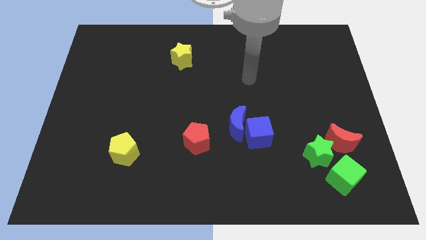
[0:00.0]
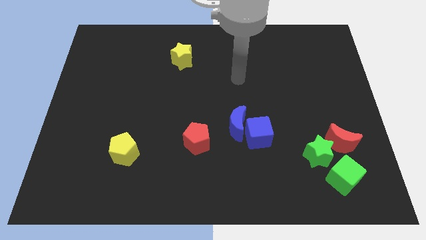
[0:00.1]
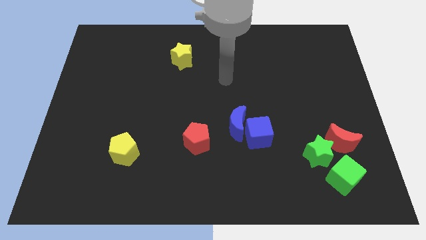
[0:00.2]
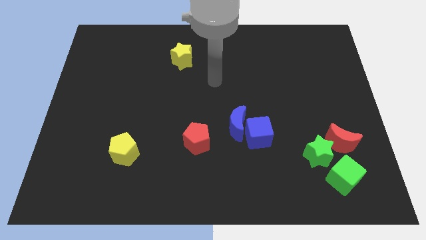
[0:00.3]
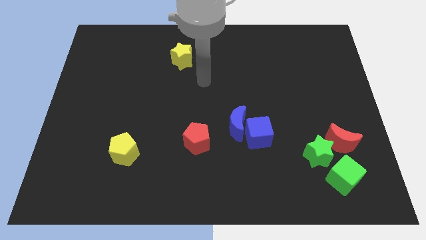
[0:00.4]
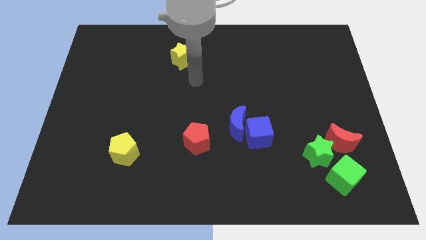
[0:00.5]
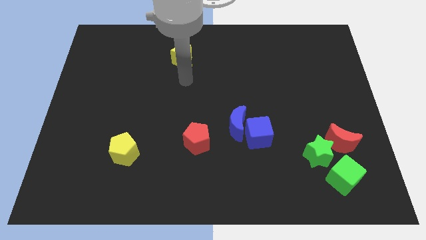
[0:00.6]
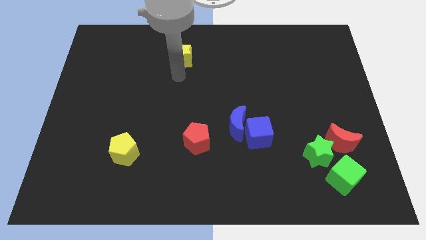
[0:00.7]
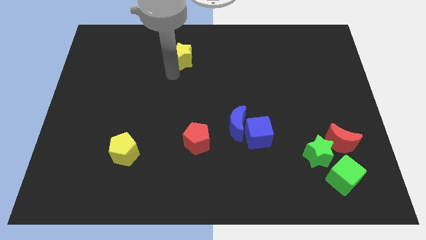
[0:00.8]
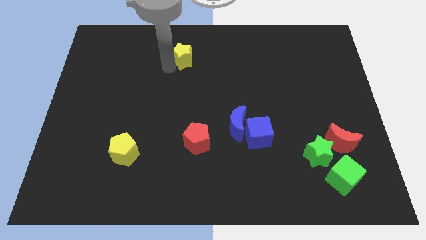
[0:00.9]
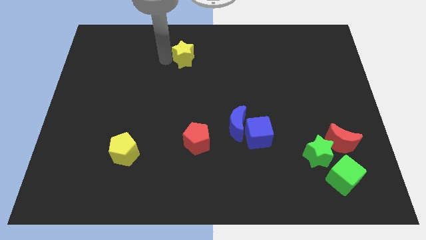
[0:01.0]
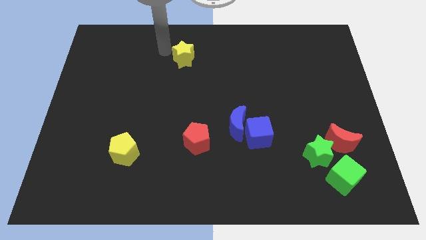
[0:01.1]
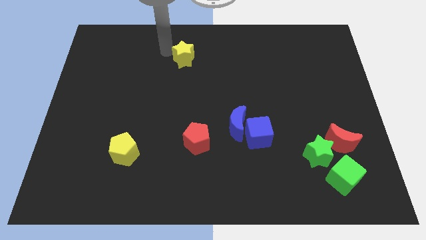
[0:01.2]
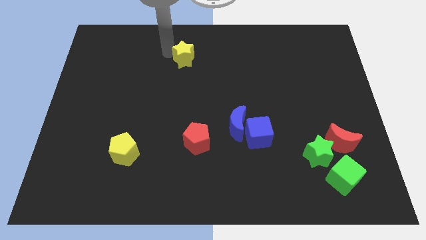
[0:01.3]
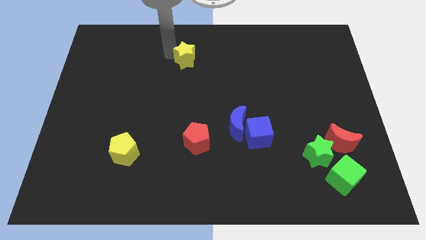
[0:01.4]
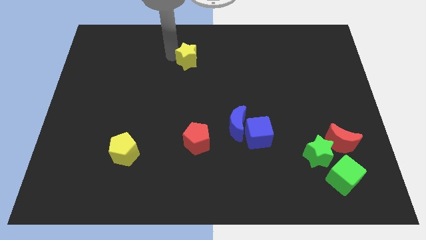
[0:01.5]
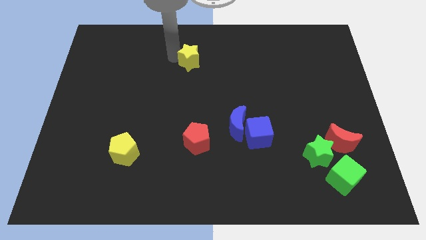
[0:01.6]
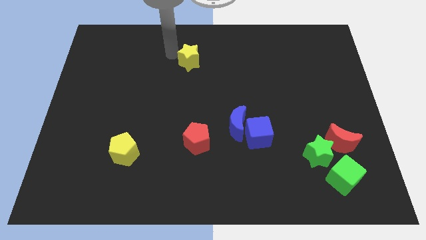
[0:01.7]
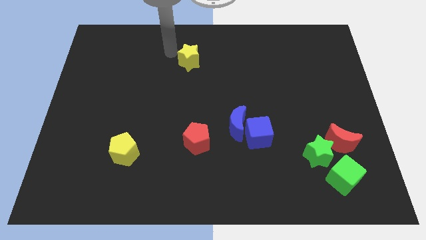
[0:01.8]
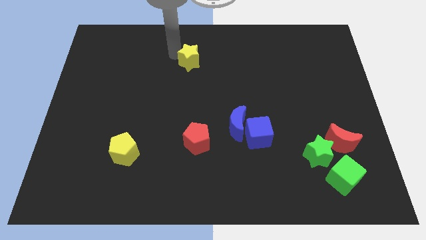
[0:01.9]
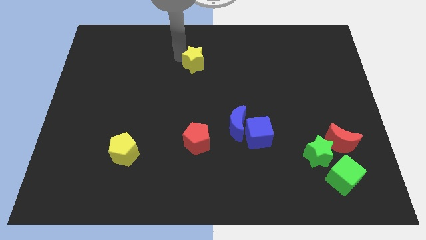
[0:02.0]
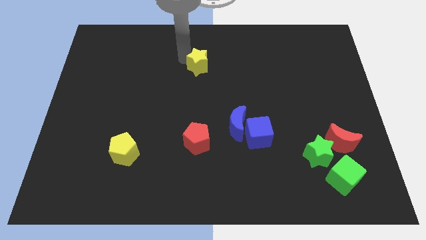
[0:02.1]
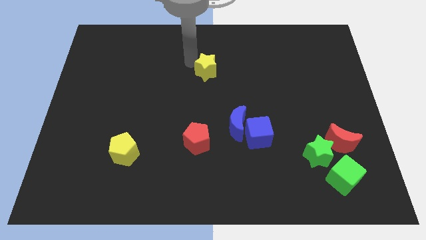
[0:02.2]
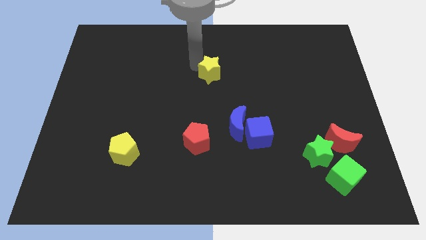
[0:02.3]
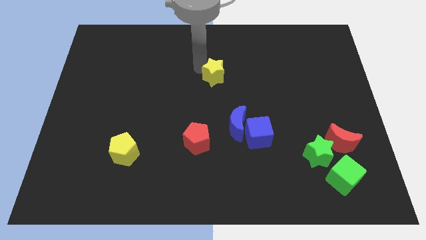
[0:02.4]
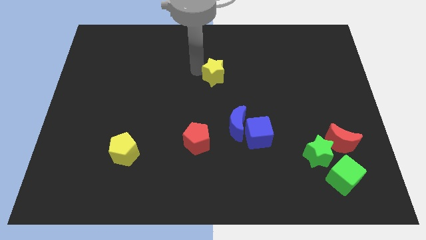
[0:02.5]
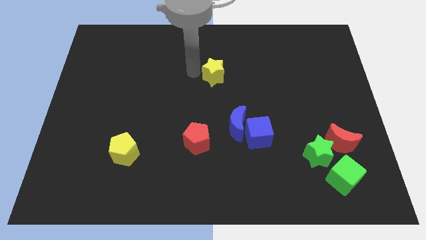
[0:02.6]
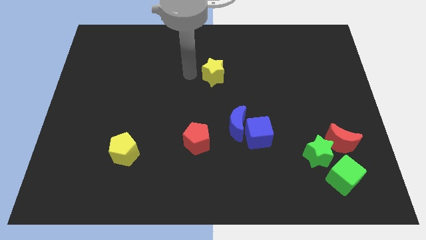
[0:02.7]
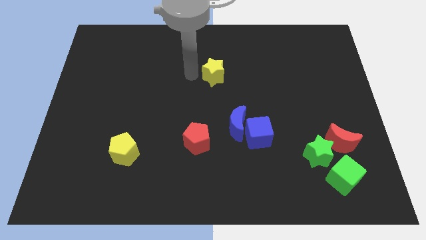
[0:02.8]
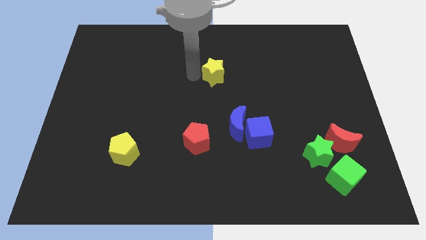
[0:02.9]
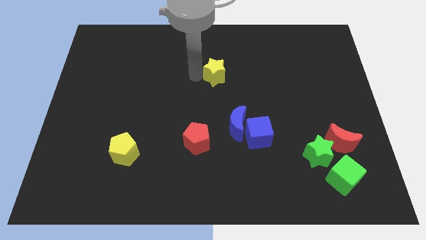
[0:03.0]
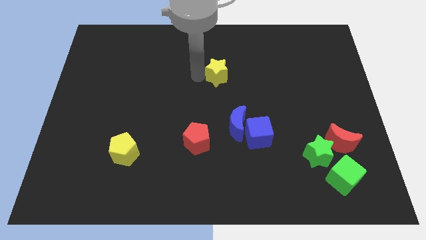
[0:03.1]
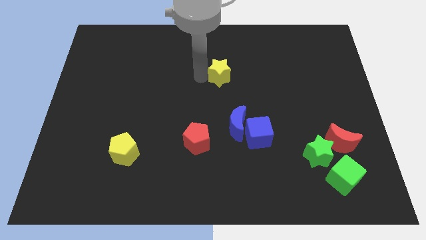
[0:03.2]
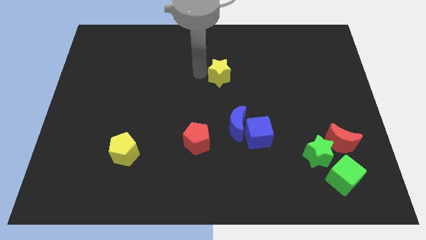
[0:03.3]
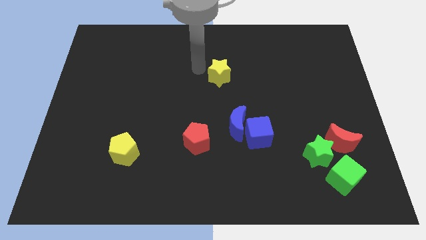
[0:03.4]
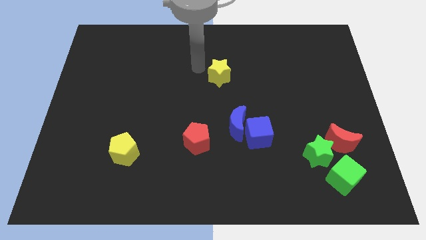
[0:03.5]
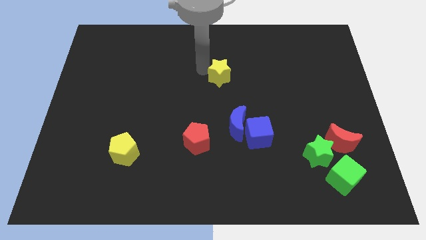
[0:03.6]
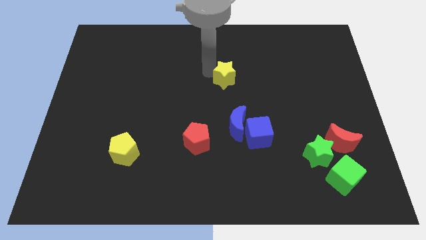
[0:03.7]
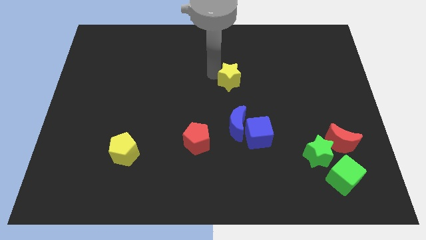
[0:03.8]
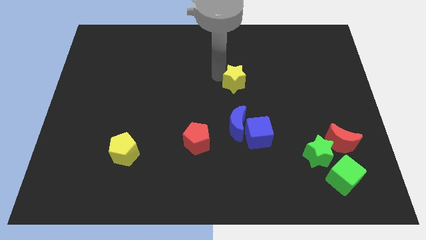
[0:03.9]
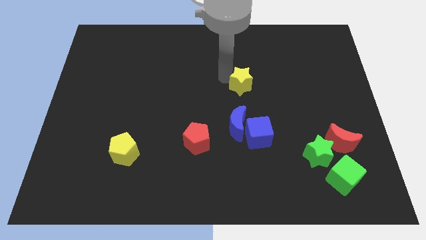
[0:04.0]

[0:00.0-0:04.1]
move the yellow star above the blue cube

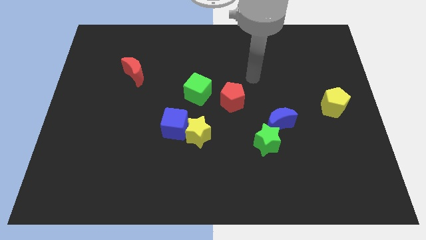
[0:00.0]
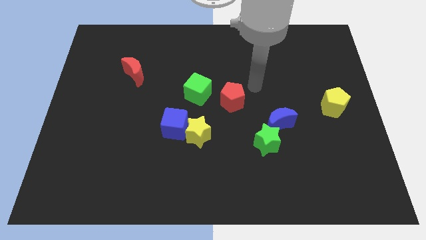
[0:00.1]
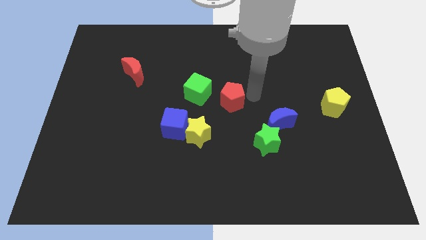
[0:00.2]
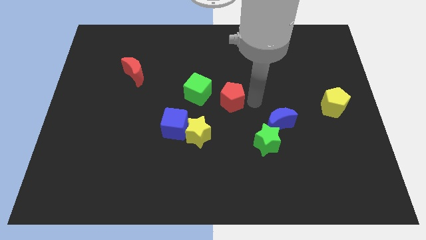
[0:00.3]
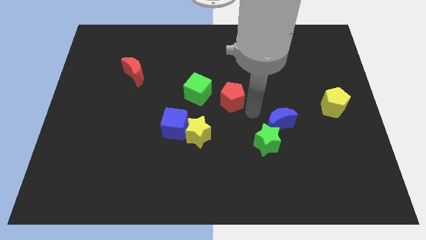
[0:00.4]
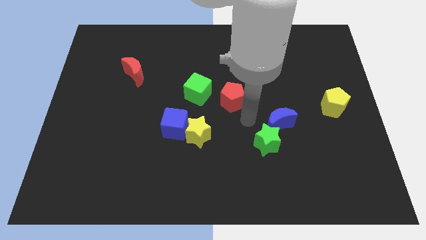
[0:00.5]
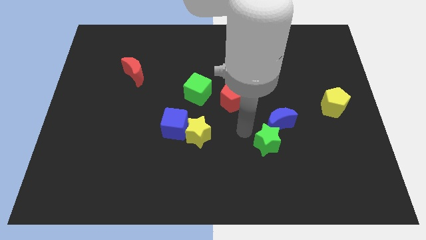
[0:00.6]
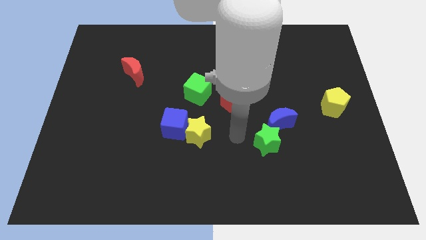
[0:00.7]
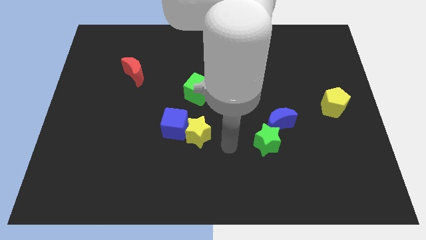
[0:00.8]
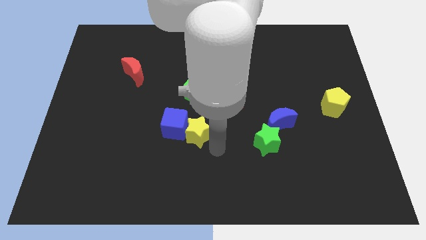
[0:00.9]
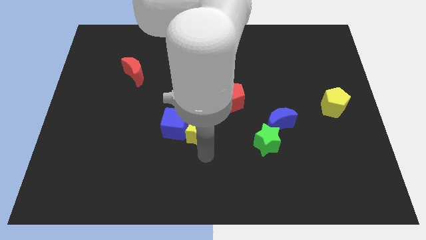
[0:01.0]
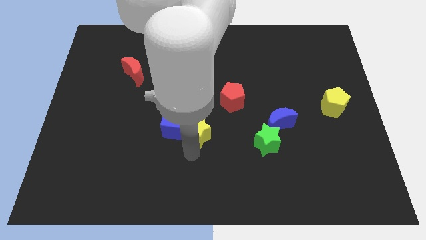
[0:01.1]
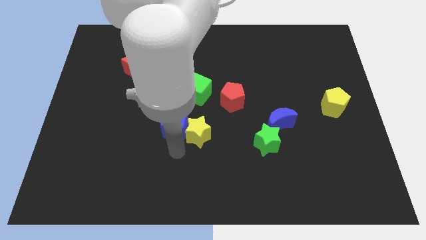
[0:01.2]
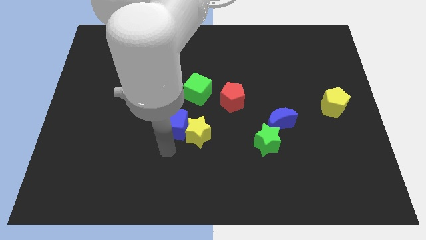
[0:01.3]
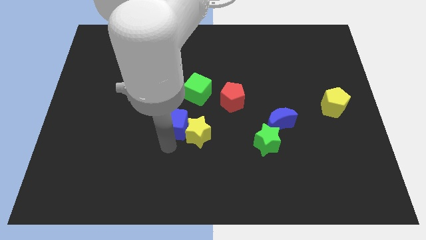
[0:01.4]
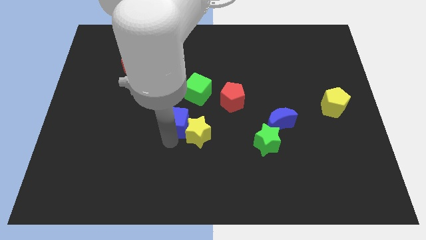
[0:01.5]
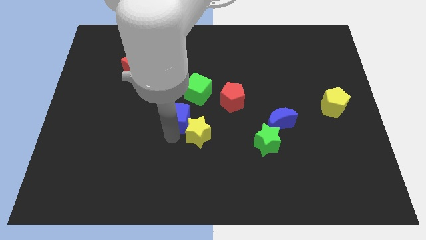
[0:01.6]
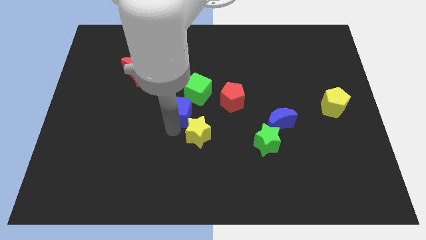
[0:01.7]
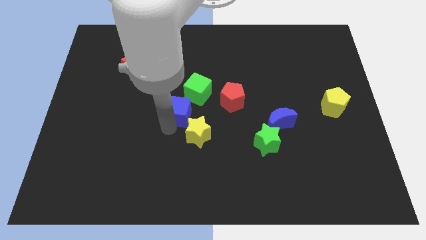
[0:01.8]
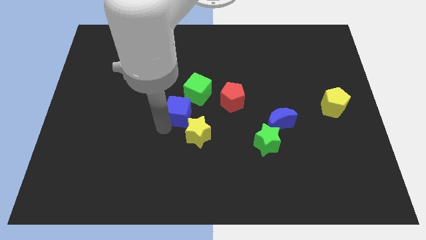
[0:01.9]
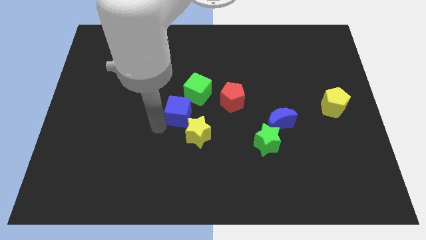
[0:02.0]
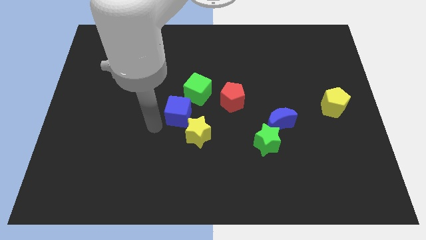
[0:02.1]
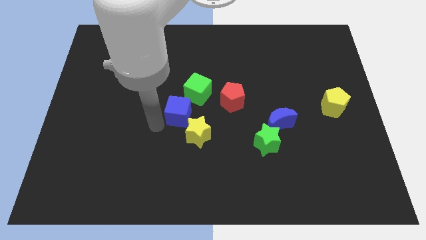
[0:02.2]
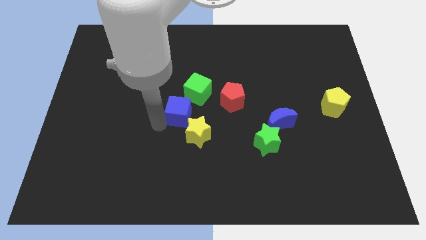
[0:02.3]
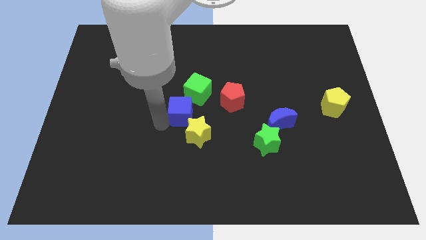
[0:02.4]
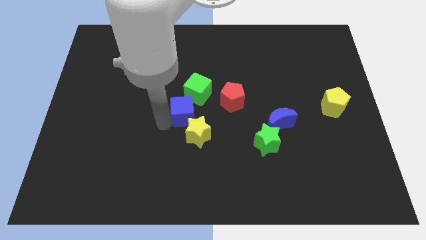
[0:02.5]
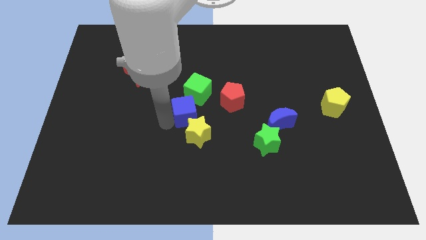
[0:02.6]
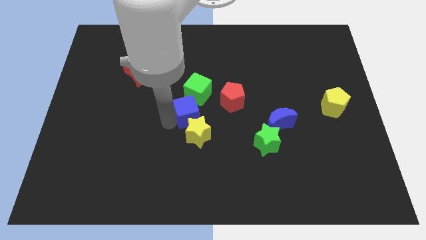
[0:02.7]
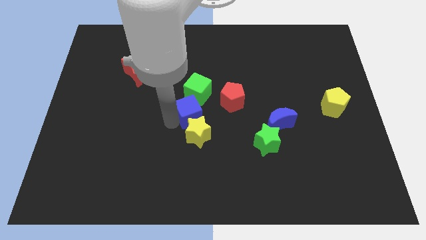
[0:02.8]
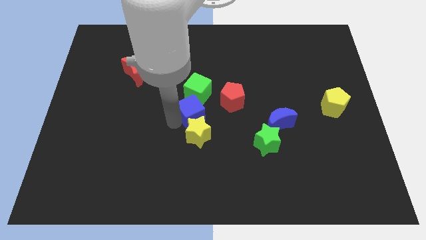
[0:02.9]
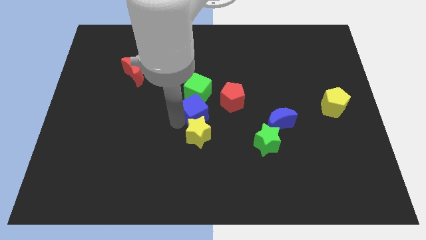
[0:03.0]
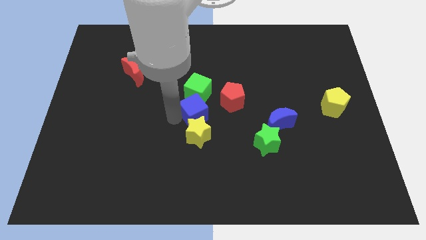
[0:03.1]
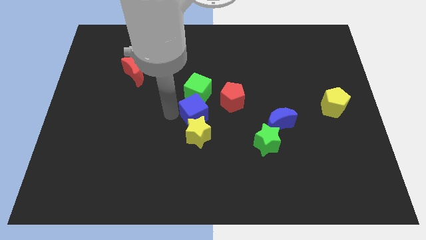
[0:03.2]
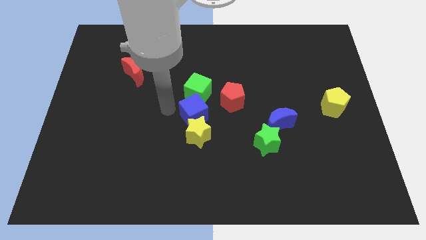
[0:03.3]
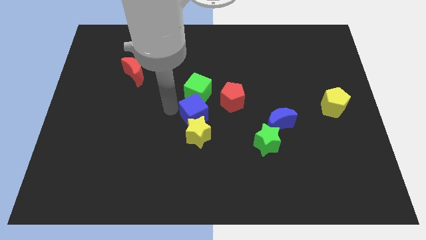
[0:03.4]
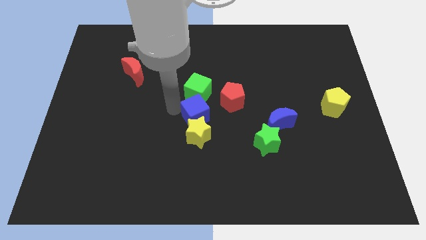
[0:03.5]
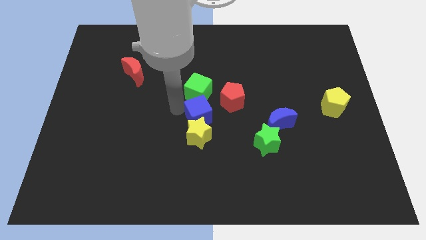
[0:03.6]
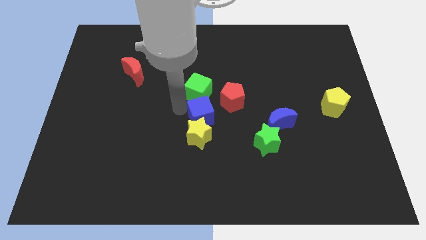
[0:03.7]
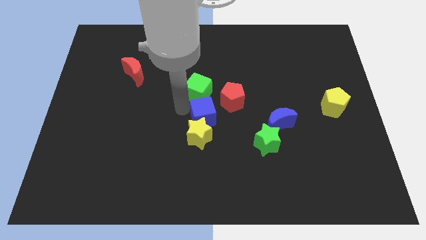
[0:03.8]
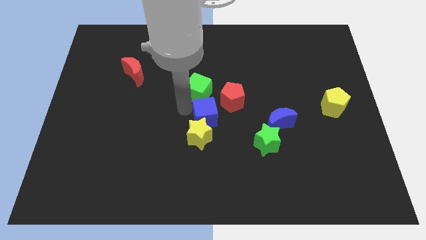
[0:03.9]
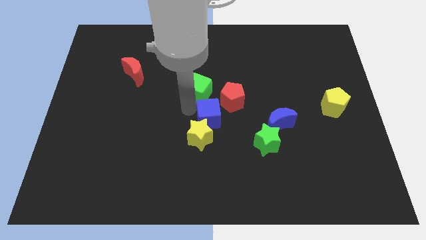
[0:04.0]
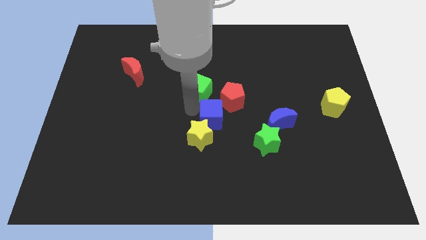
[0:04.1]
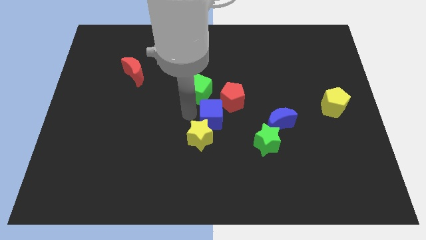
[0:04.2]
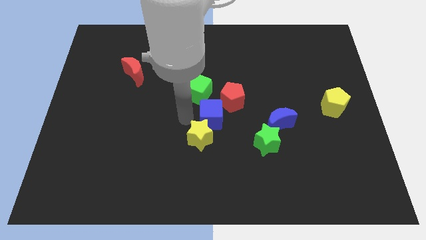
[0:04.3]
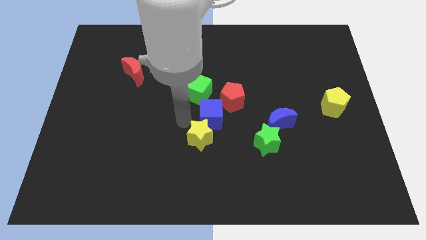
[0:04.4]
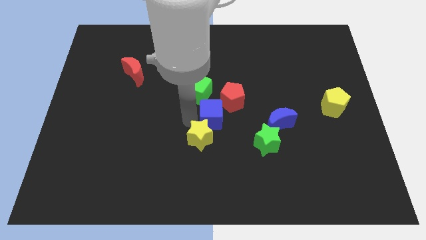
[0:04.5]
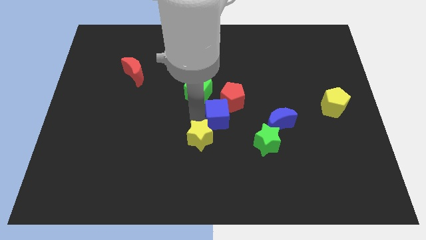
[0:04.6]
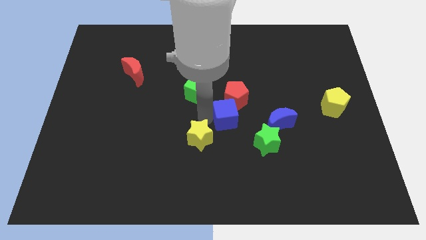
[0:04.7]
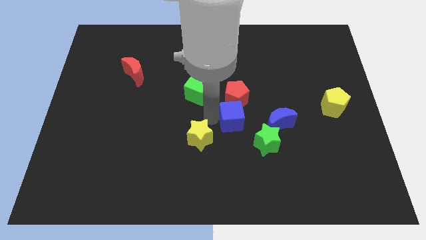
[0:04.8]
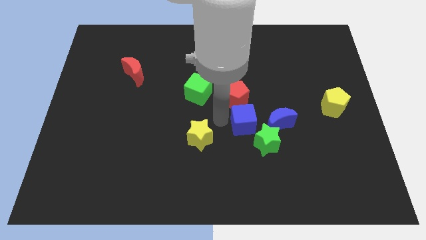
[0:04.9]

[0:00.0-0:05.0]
push the blue cube to the top side of the green star
